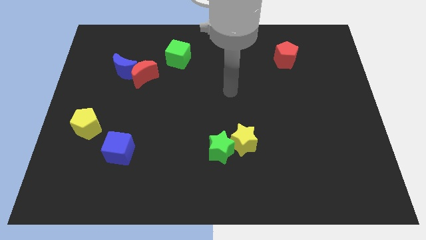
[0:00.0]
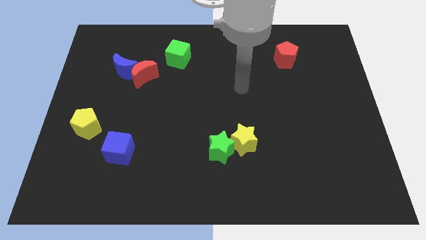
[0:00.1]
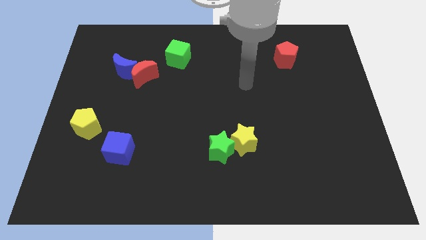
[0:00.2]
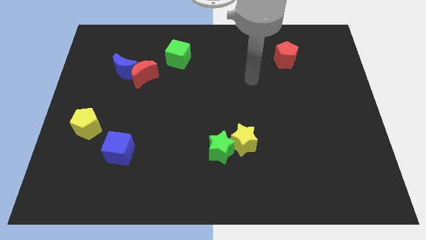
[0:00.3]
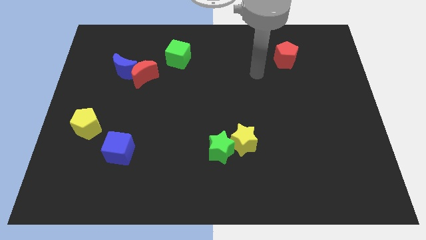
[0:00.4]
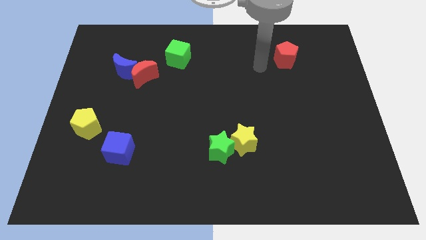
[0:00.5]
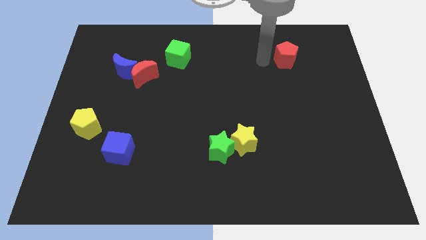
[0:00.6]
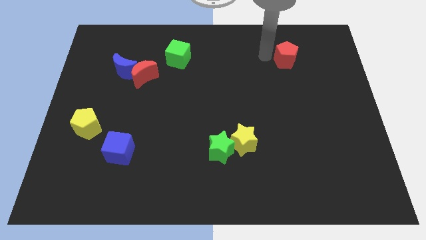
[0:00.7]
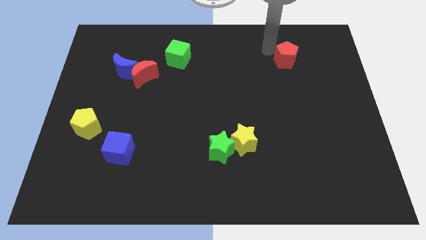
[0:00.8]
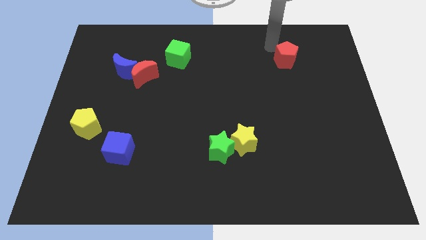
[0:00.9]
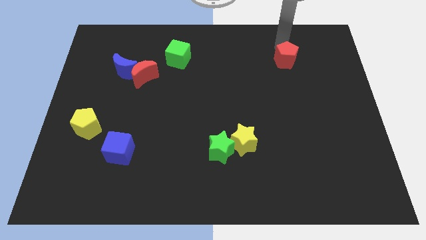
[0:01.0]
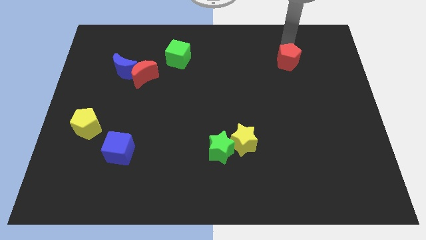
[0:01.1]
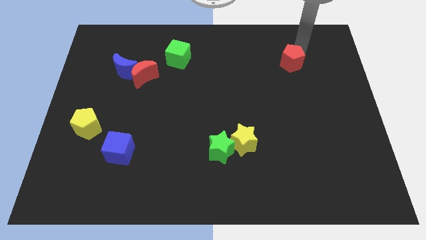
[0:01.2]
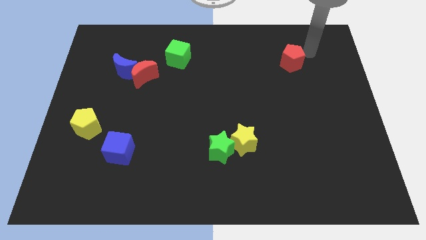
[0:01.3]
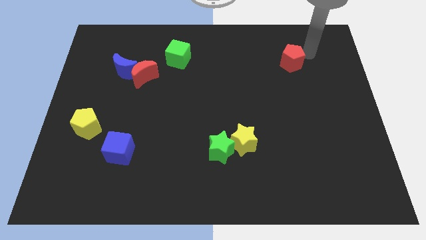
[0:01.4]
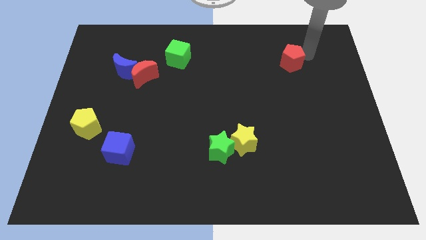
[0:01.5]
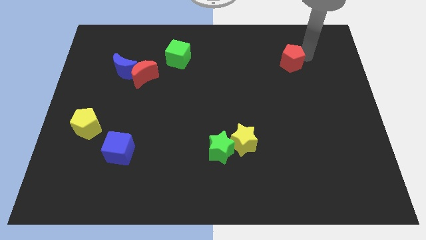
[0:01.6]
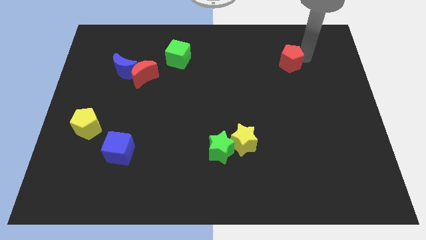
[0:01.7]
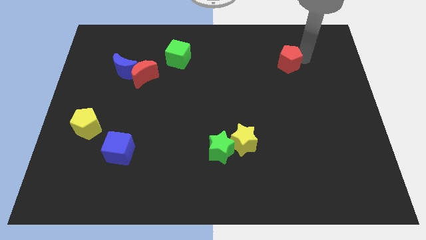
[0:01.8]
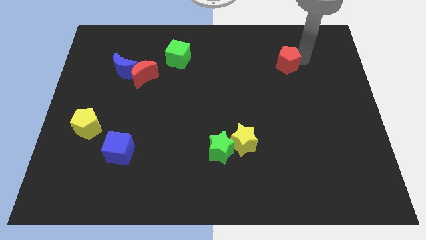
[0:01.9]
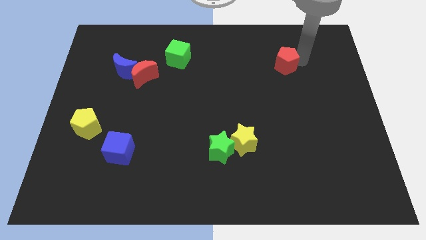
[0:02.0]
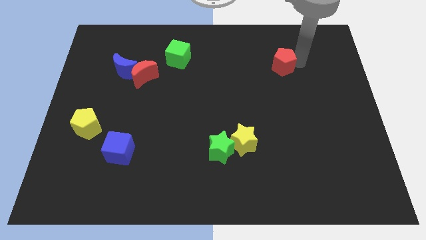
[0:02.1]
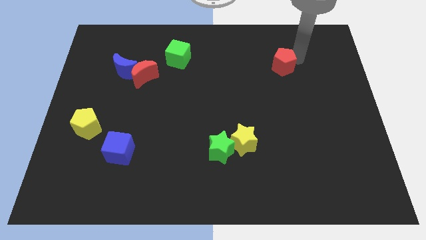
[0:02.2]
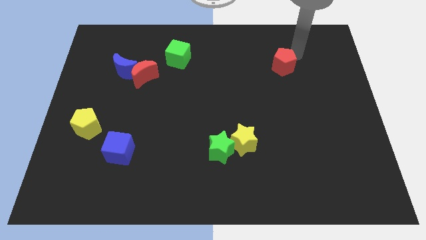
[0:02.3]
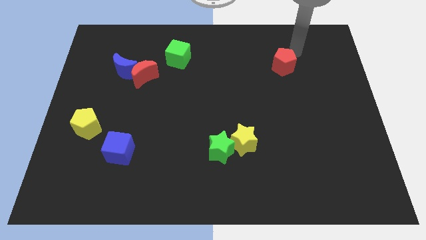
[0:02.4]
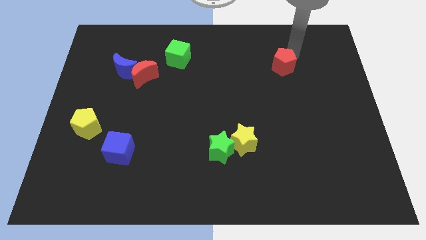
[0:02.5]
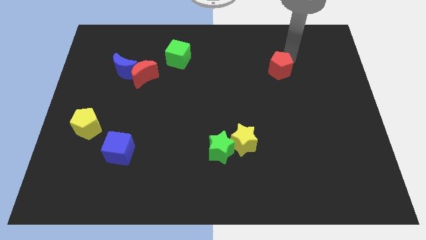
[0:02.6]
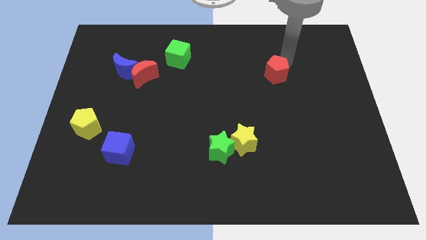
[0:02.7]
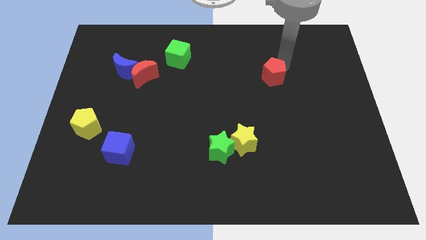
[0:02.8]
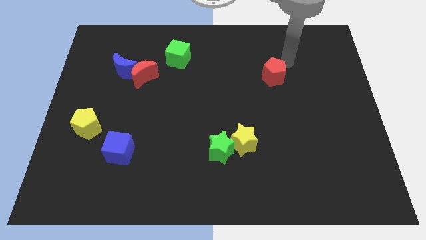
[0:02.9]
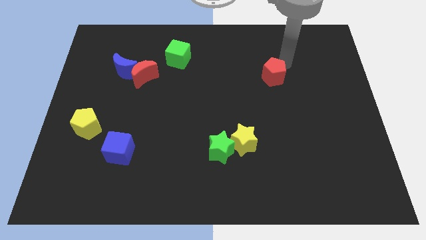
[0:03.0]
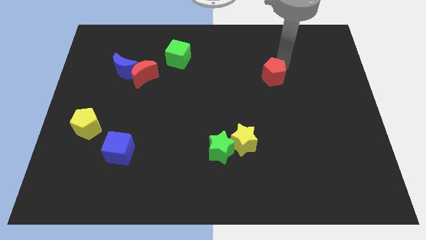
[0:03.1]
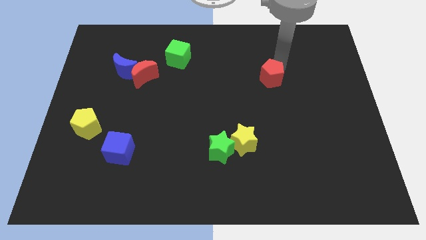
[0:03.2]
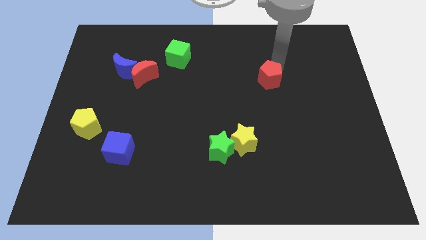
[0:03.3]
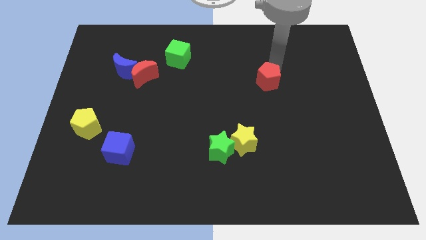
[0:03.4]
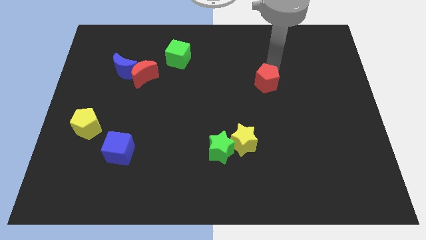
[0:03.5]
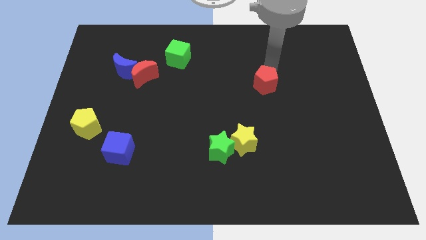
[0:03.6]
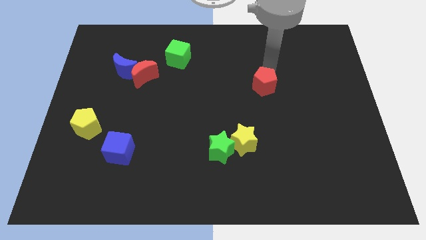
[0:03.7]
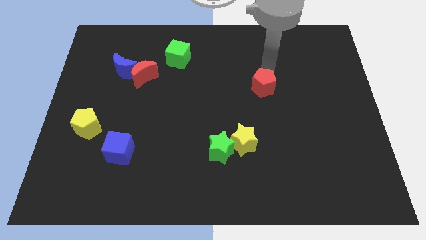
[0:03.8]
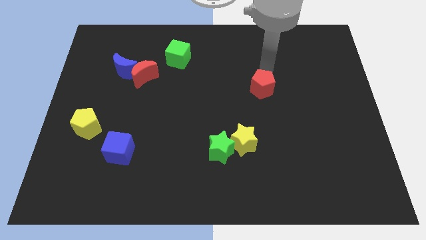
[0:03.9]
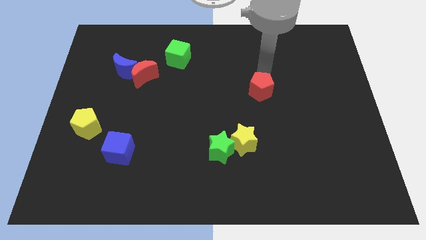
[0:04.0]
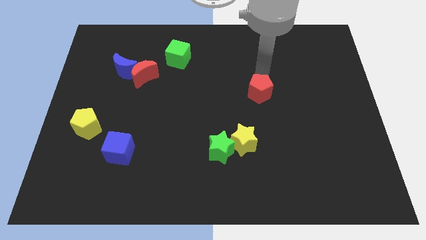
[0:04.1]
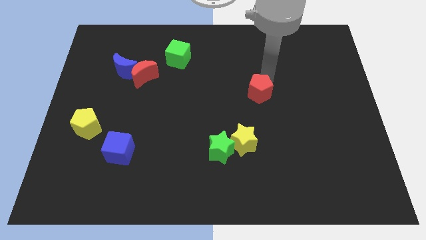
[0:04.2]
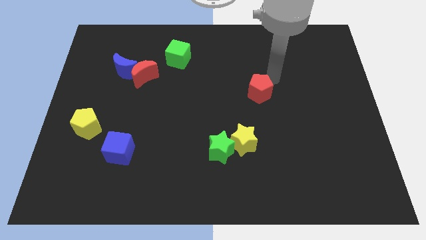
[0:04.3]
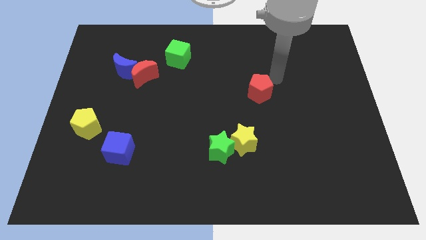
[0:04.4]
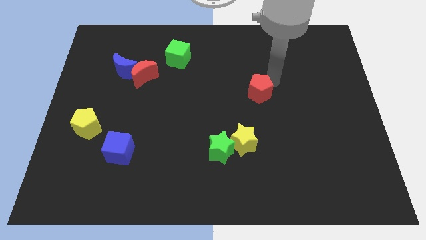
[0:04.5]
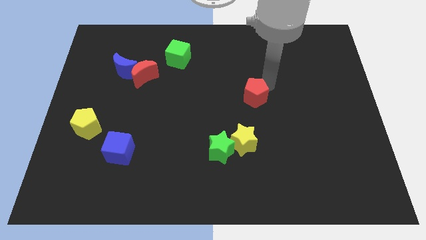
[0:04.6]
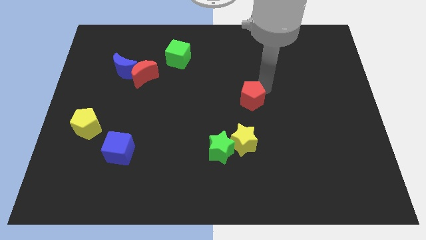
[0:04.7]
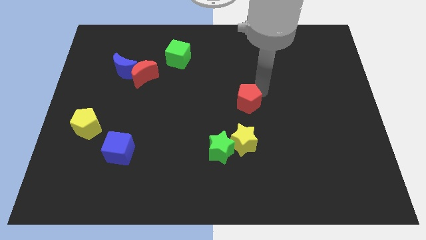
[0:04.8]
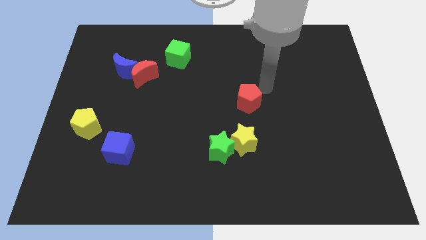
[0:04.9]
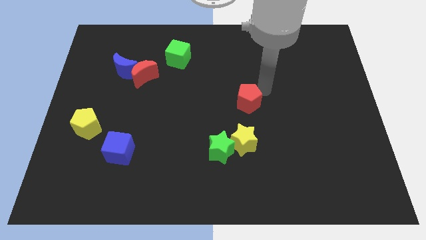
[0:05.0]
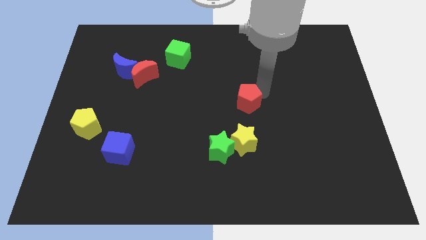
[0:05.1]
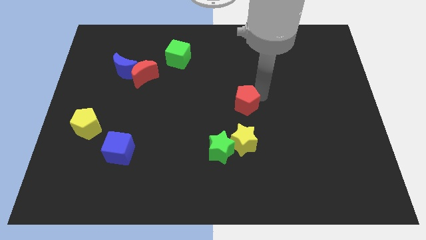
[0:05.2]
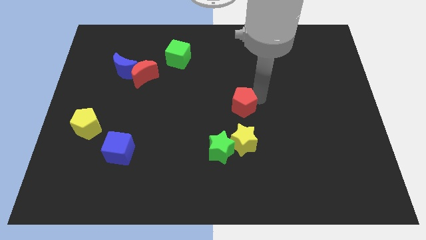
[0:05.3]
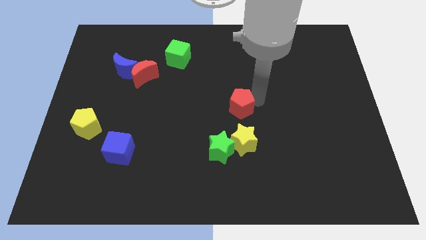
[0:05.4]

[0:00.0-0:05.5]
move the red pentagon down and left

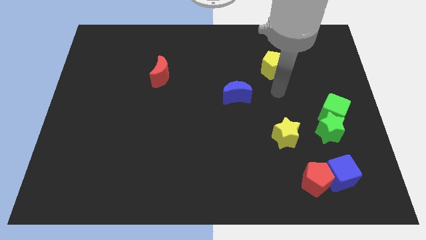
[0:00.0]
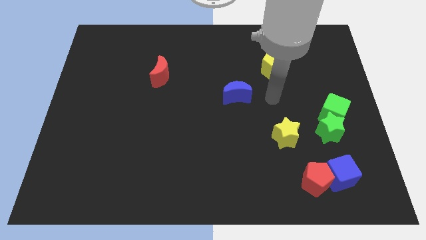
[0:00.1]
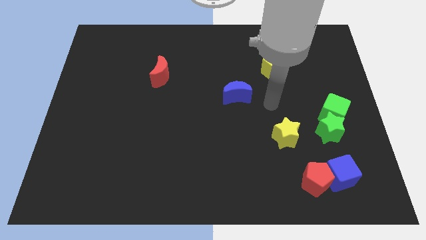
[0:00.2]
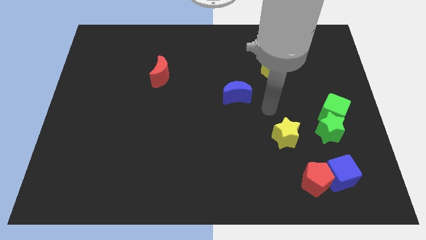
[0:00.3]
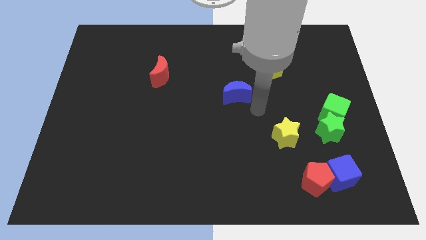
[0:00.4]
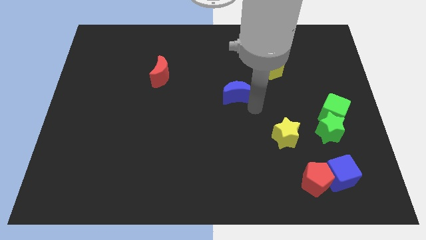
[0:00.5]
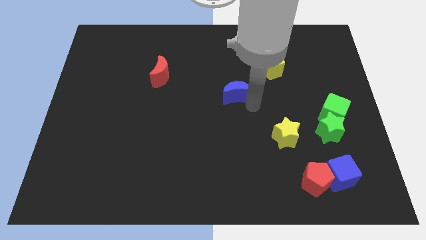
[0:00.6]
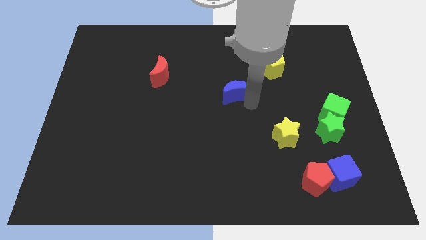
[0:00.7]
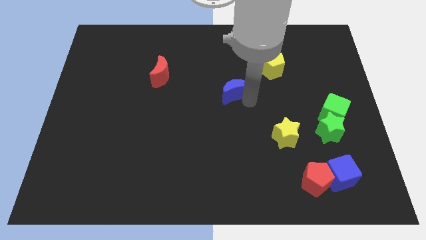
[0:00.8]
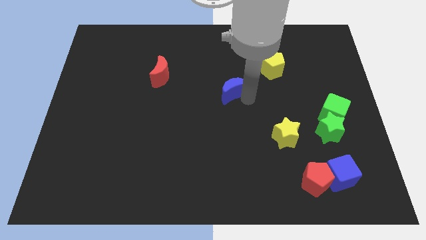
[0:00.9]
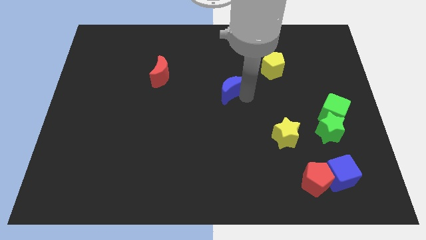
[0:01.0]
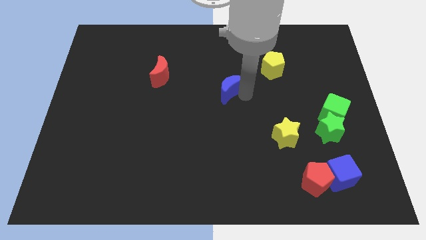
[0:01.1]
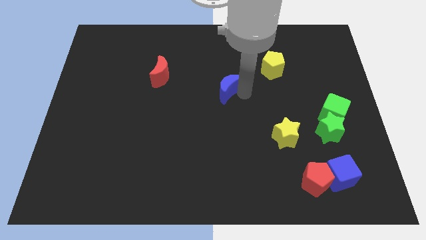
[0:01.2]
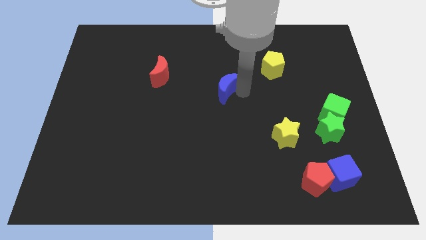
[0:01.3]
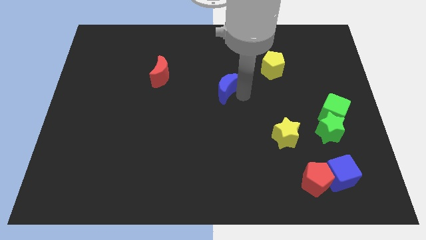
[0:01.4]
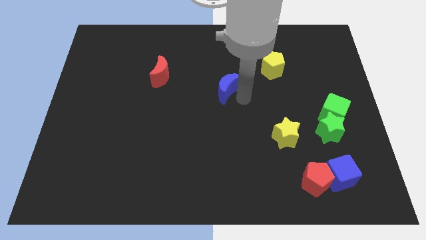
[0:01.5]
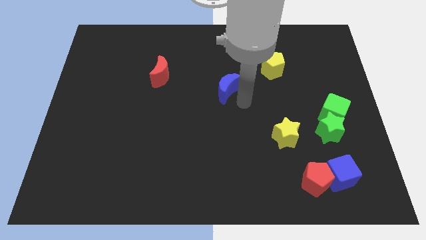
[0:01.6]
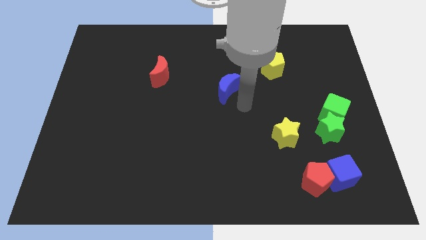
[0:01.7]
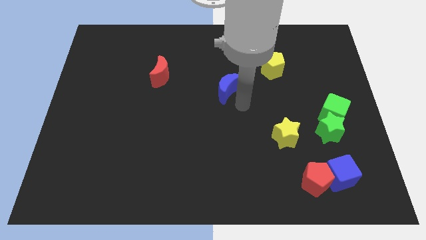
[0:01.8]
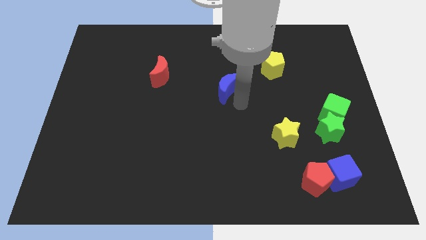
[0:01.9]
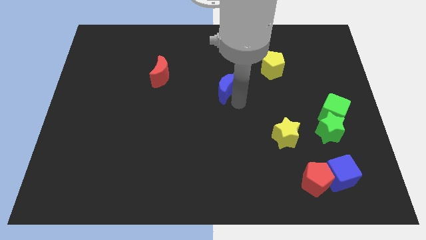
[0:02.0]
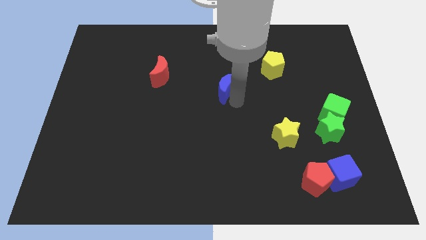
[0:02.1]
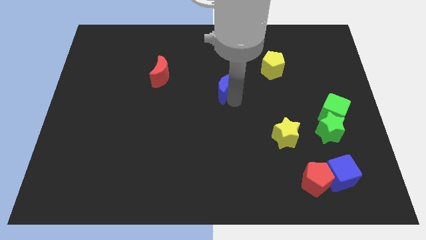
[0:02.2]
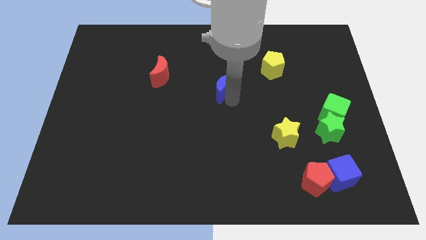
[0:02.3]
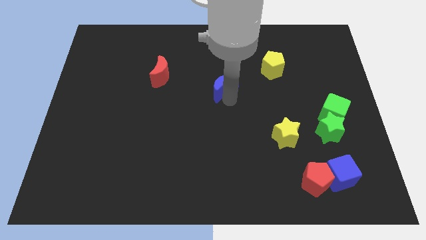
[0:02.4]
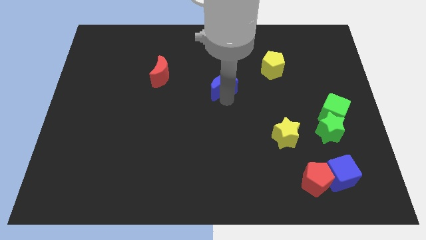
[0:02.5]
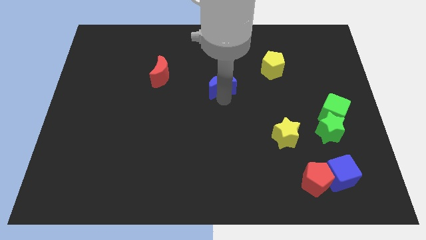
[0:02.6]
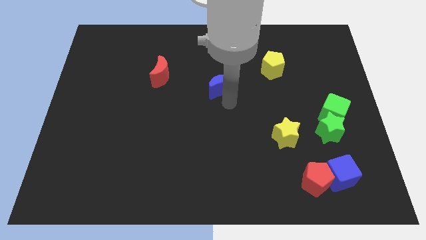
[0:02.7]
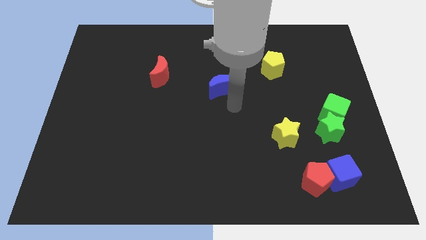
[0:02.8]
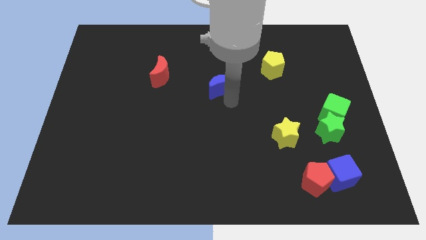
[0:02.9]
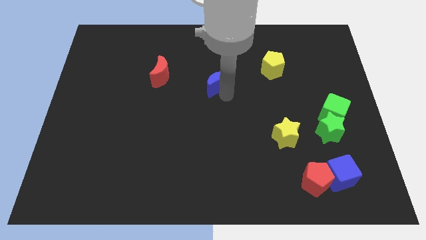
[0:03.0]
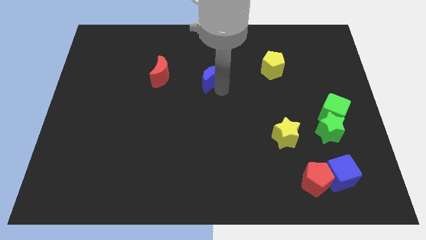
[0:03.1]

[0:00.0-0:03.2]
slide the blue moon slightly upwards and left
